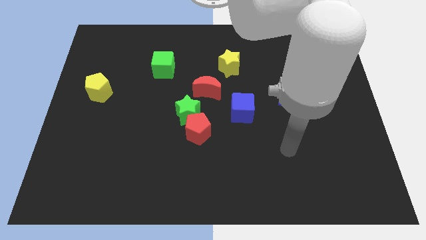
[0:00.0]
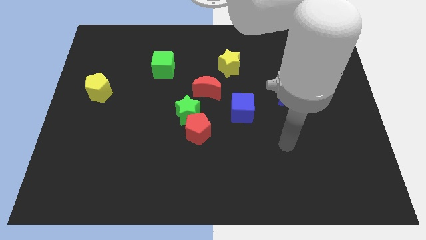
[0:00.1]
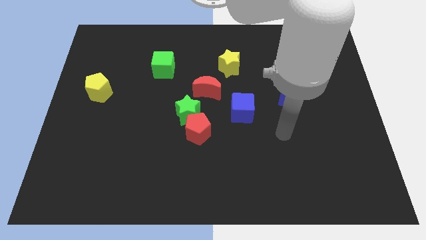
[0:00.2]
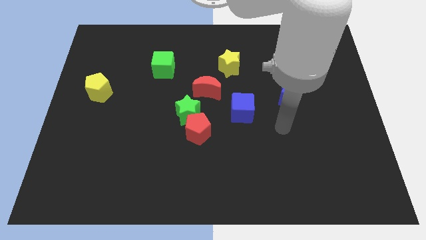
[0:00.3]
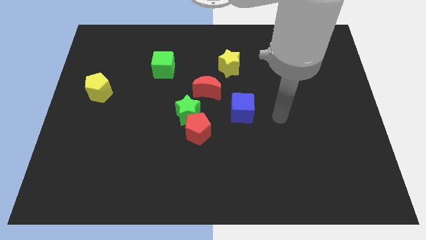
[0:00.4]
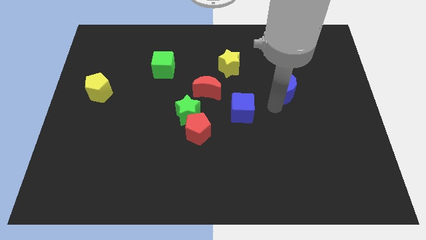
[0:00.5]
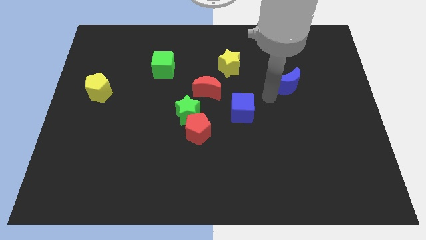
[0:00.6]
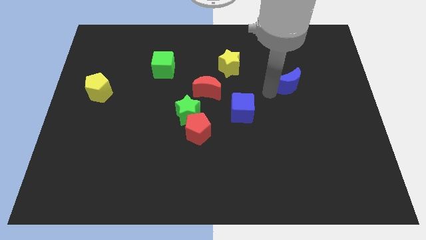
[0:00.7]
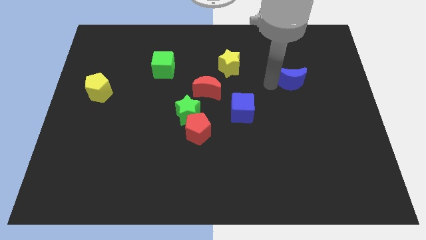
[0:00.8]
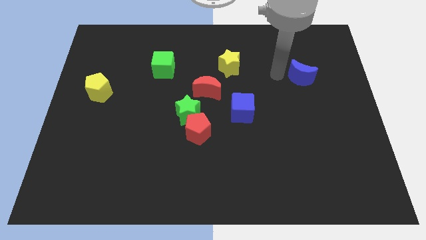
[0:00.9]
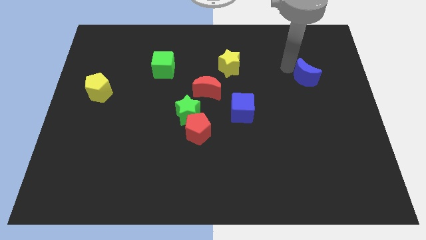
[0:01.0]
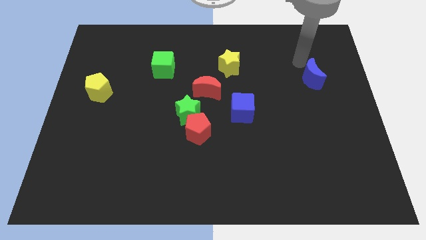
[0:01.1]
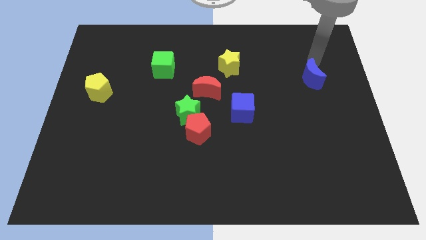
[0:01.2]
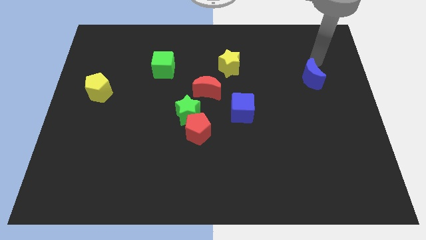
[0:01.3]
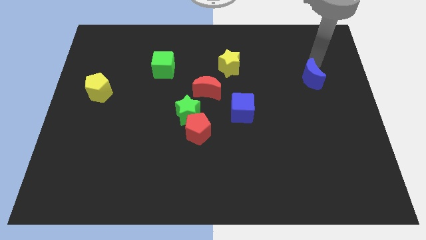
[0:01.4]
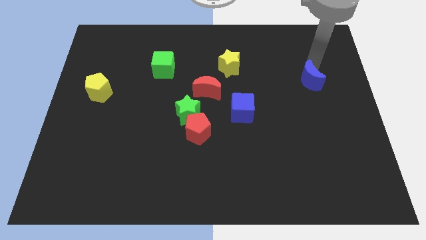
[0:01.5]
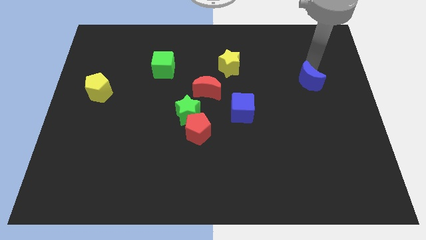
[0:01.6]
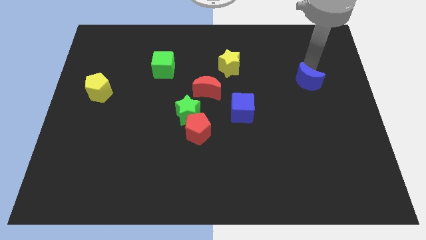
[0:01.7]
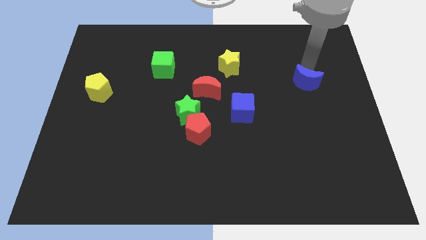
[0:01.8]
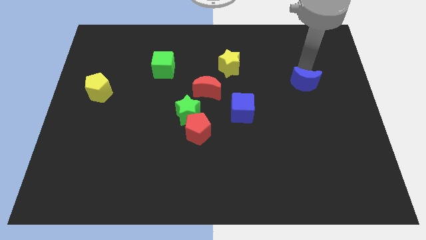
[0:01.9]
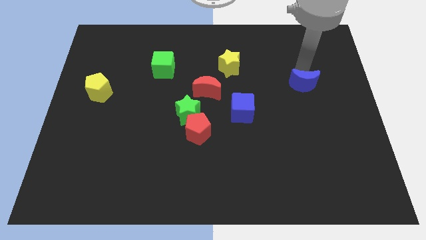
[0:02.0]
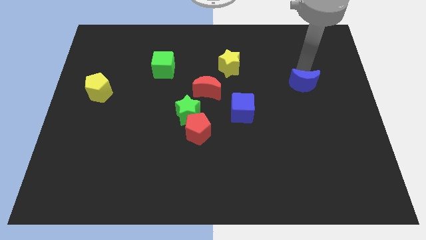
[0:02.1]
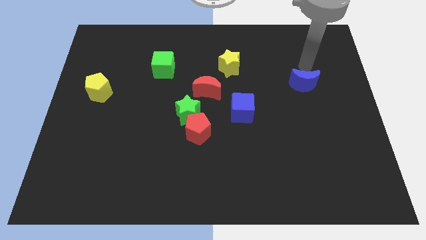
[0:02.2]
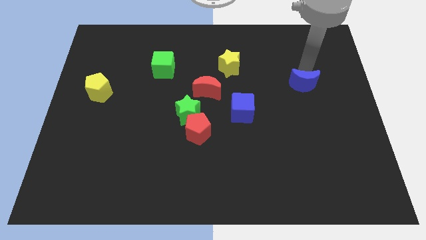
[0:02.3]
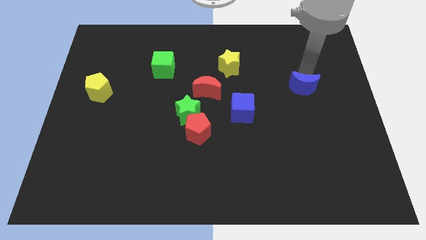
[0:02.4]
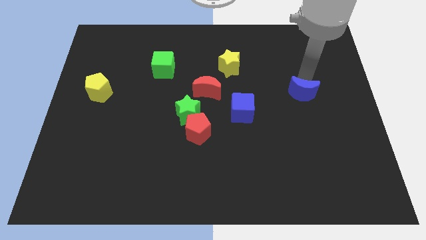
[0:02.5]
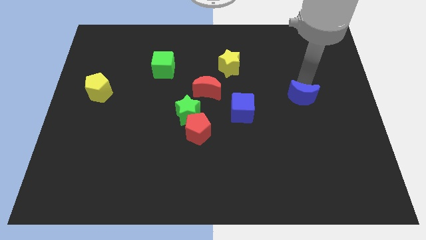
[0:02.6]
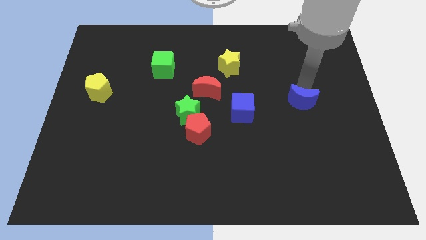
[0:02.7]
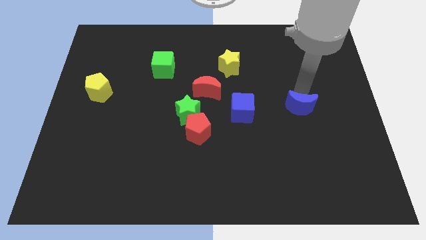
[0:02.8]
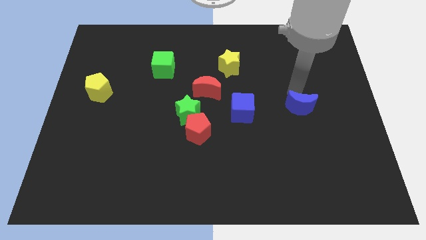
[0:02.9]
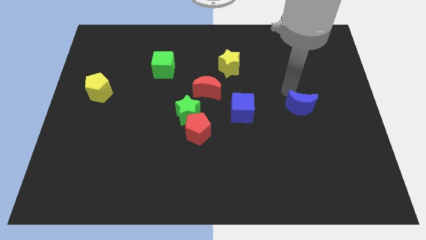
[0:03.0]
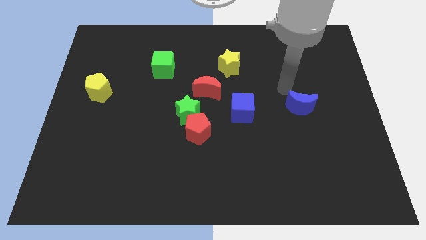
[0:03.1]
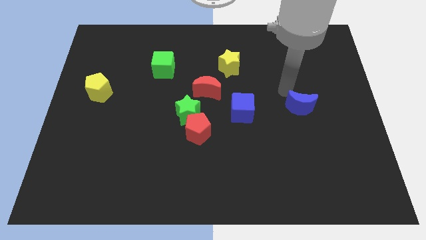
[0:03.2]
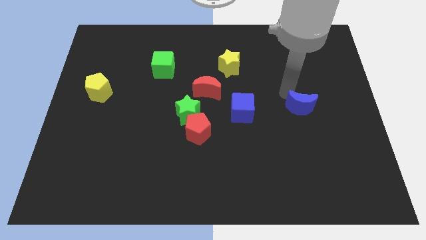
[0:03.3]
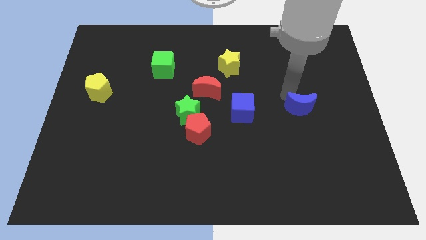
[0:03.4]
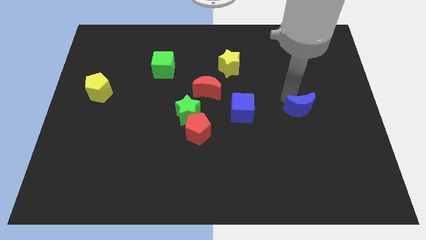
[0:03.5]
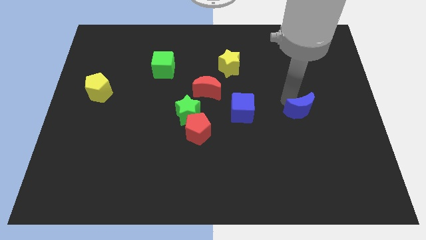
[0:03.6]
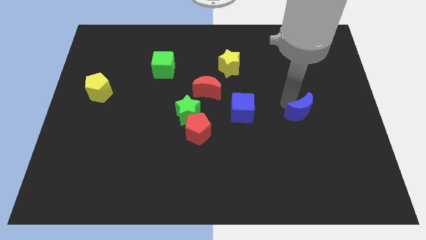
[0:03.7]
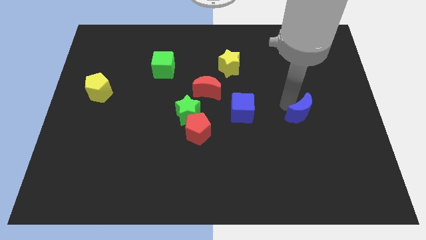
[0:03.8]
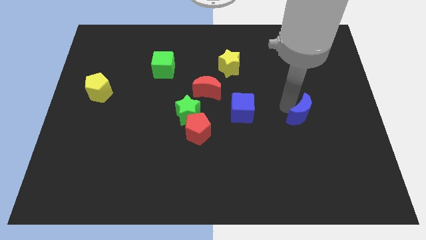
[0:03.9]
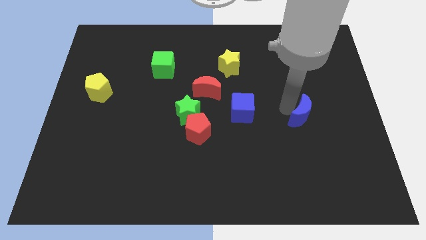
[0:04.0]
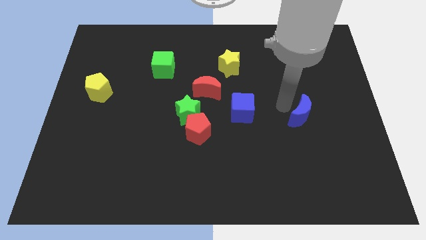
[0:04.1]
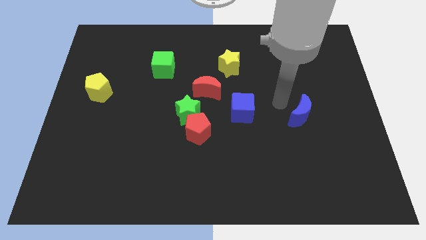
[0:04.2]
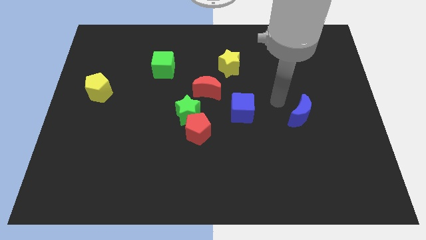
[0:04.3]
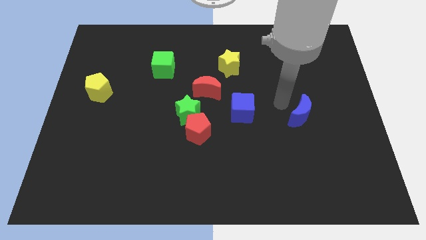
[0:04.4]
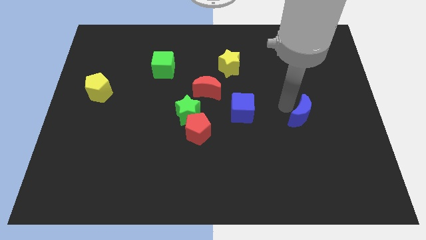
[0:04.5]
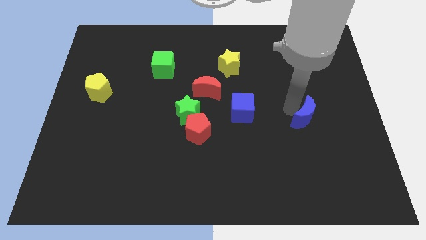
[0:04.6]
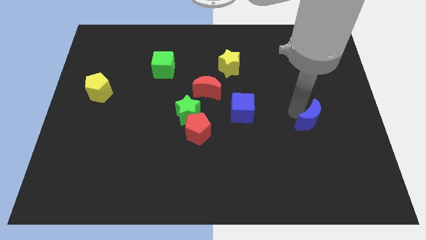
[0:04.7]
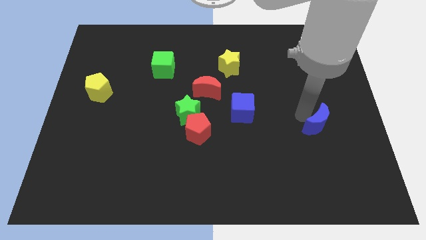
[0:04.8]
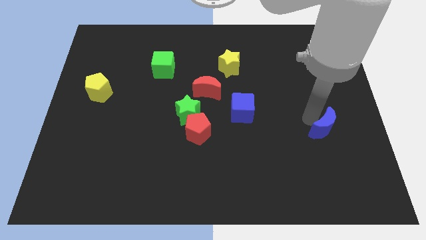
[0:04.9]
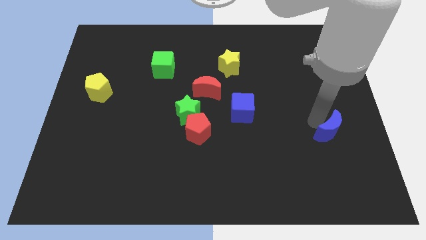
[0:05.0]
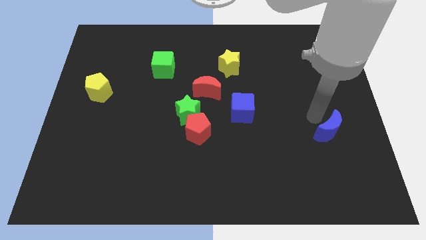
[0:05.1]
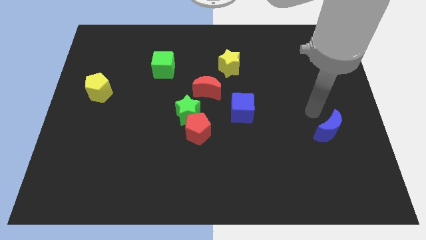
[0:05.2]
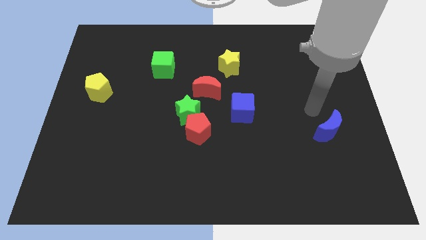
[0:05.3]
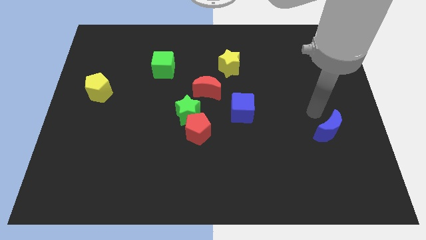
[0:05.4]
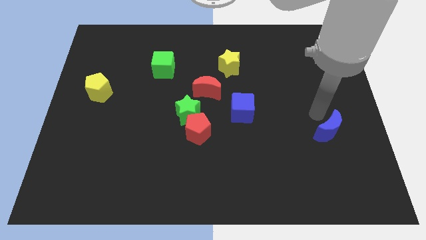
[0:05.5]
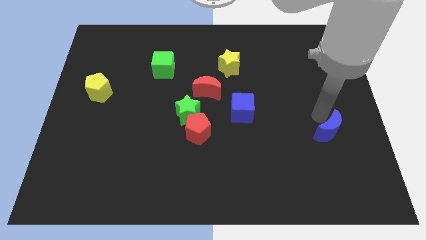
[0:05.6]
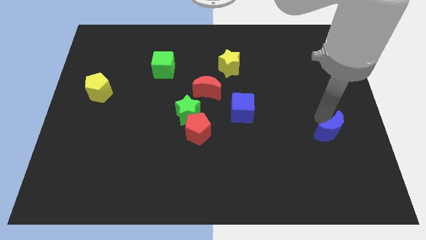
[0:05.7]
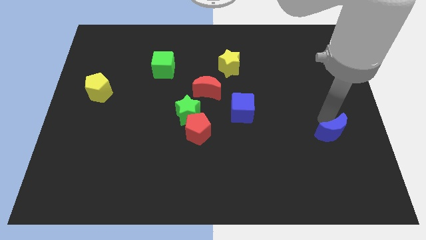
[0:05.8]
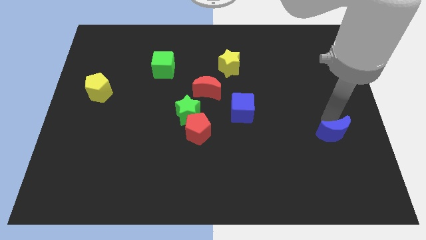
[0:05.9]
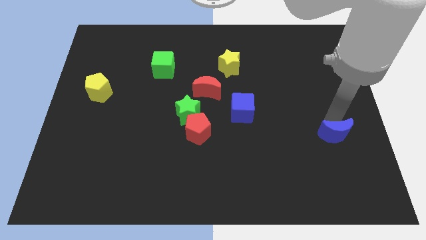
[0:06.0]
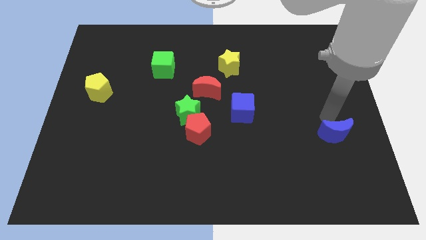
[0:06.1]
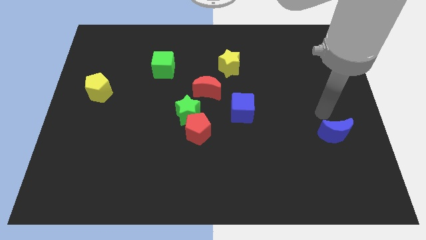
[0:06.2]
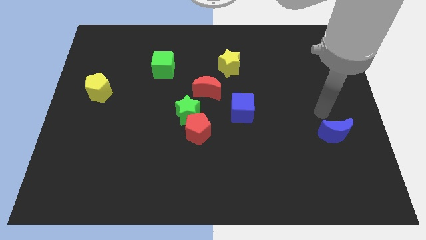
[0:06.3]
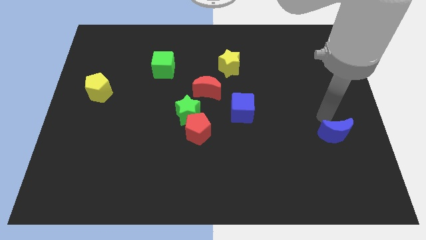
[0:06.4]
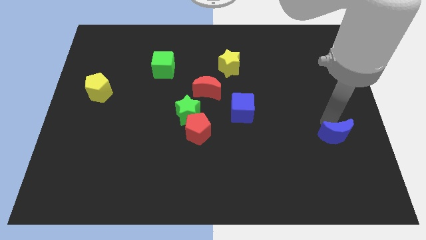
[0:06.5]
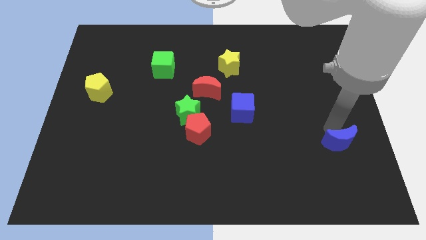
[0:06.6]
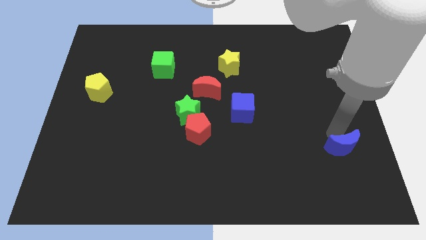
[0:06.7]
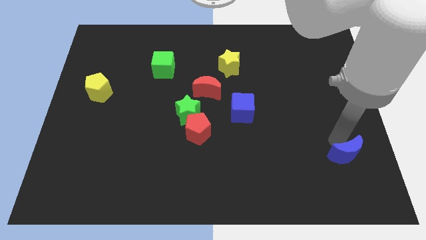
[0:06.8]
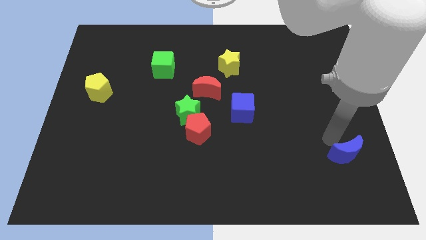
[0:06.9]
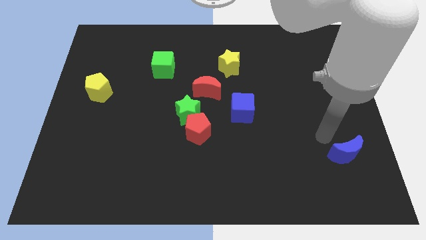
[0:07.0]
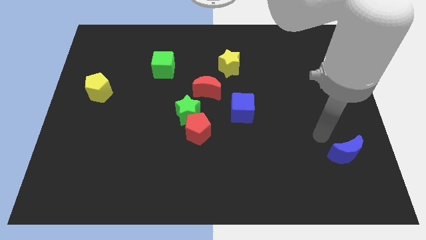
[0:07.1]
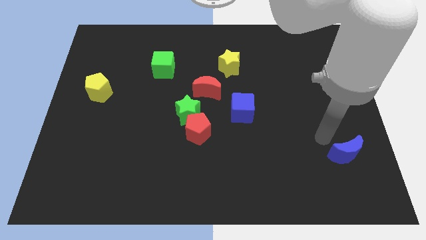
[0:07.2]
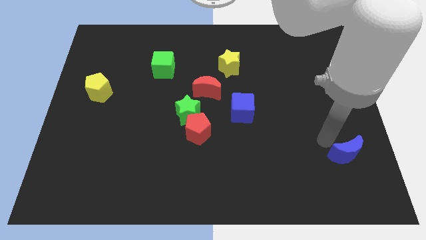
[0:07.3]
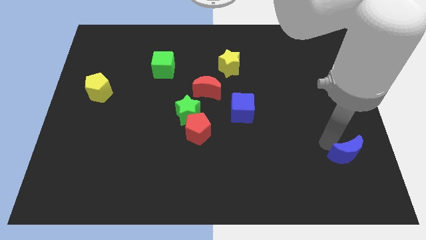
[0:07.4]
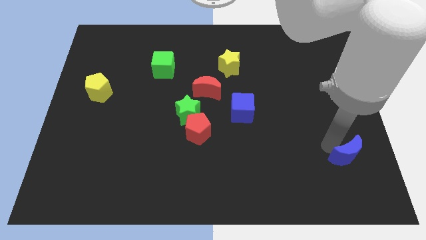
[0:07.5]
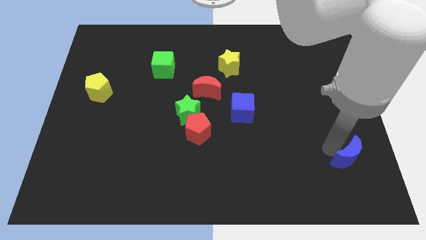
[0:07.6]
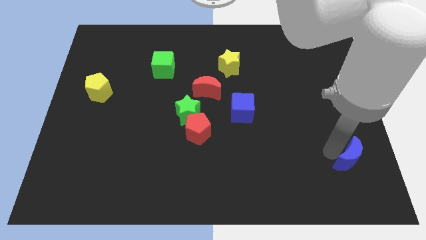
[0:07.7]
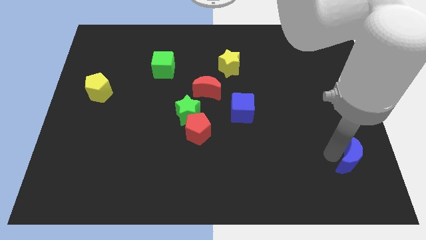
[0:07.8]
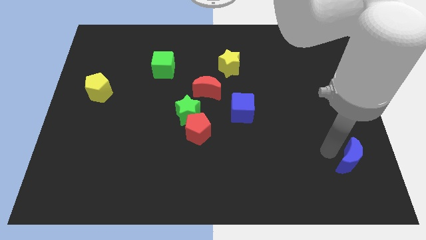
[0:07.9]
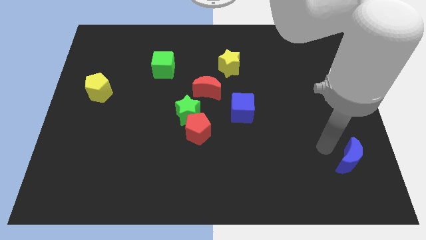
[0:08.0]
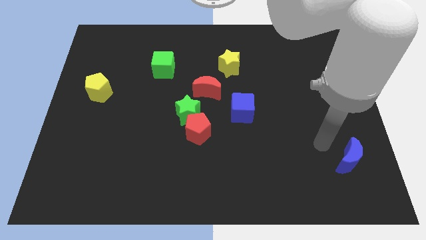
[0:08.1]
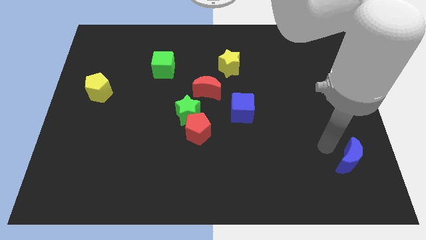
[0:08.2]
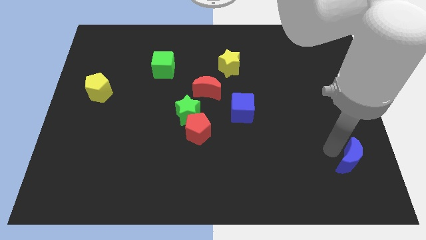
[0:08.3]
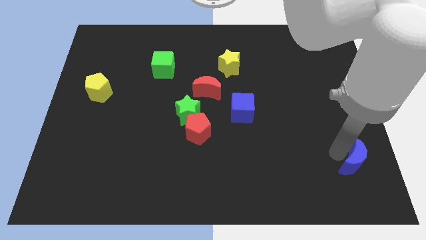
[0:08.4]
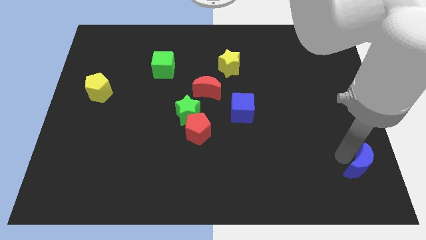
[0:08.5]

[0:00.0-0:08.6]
push the blue moon to the bottom right
